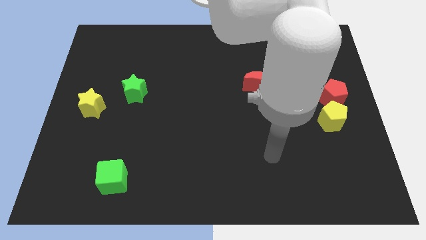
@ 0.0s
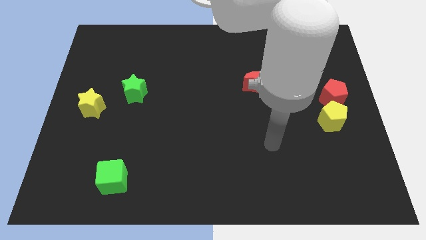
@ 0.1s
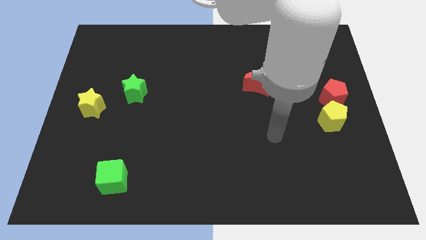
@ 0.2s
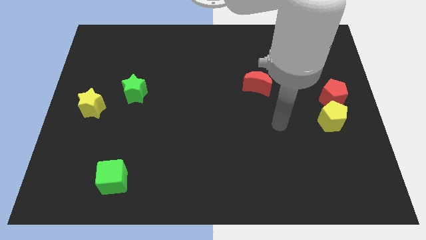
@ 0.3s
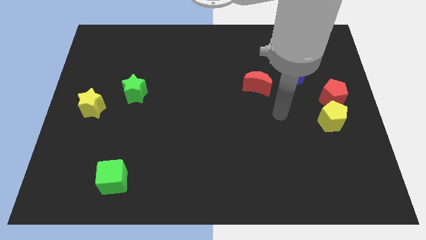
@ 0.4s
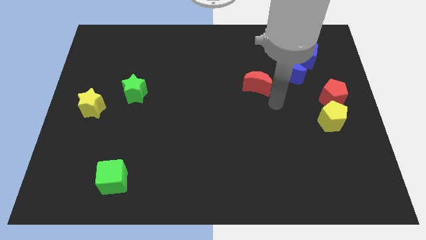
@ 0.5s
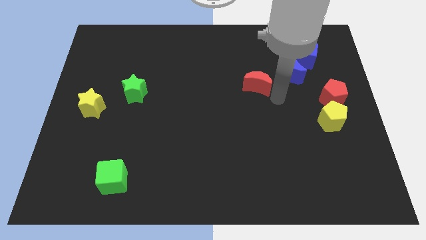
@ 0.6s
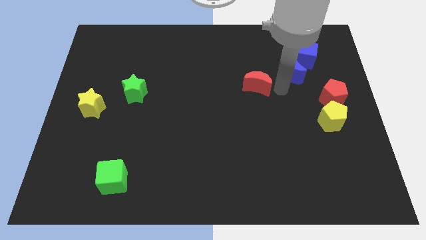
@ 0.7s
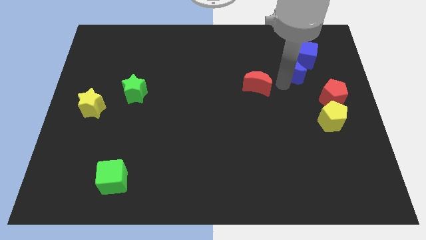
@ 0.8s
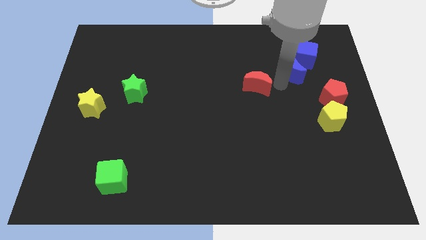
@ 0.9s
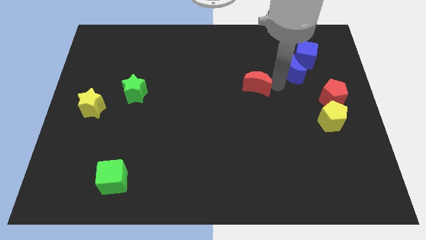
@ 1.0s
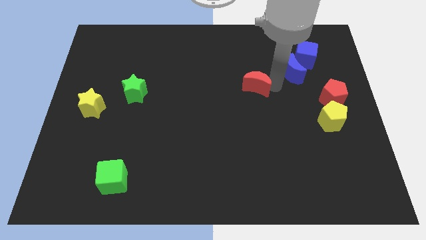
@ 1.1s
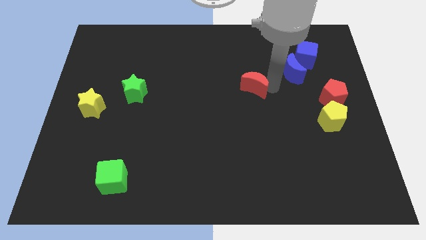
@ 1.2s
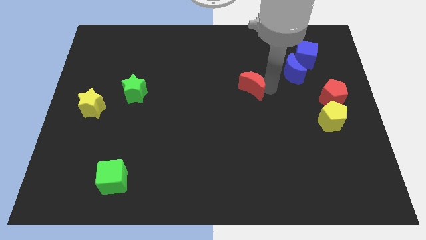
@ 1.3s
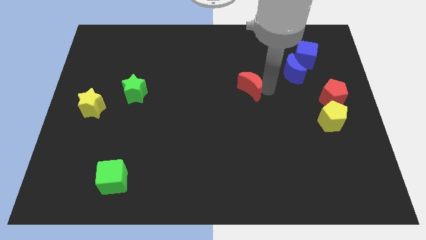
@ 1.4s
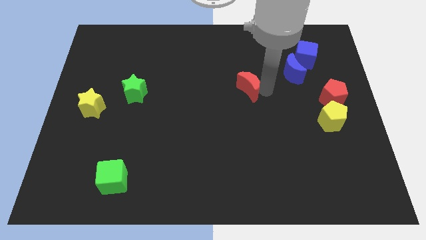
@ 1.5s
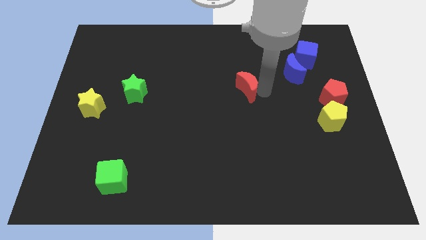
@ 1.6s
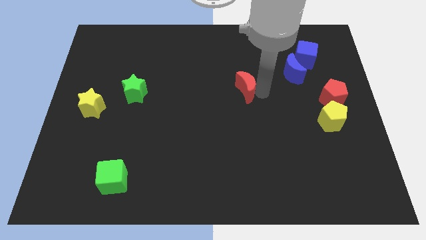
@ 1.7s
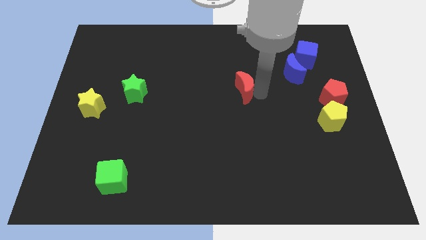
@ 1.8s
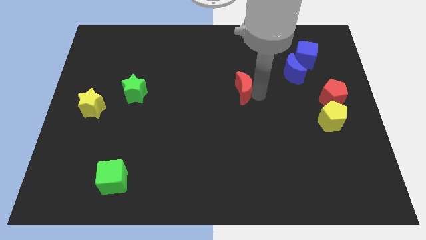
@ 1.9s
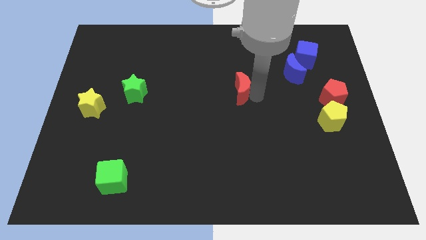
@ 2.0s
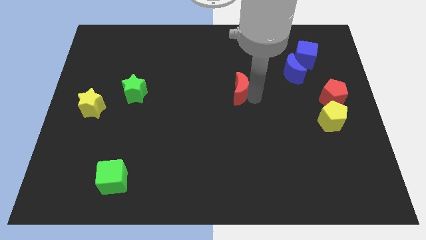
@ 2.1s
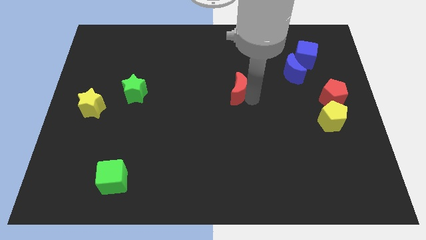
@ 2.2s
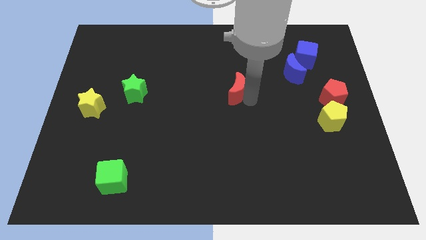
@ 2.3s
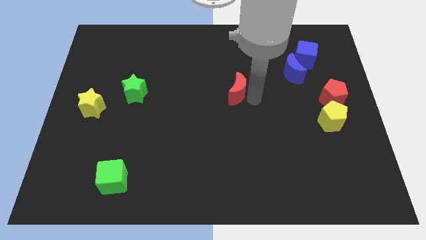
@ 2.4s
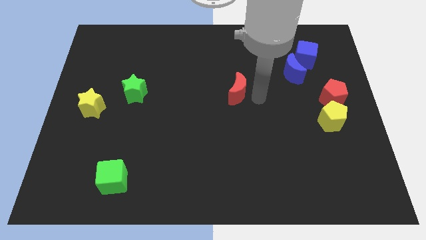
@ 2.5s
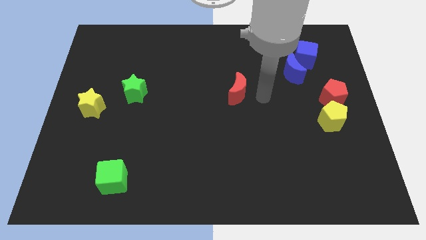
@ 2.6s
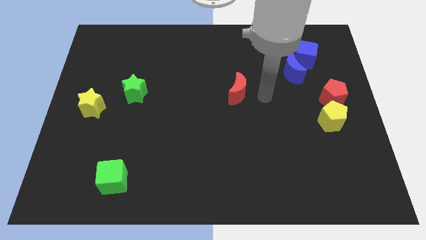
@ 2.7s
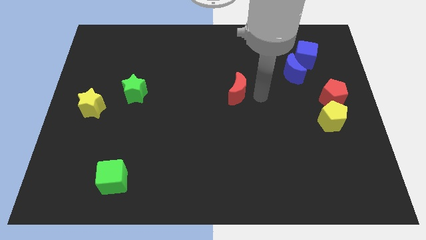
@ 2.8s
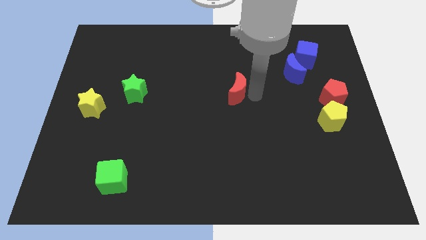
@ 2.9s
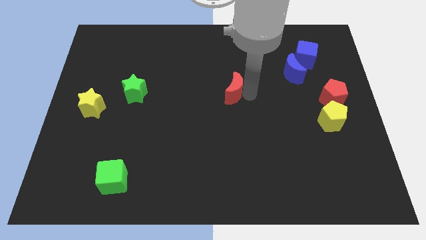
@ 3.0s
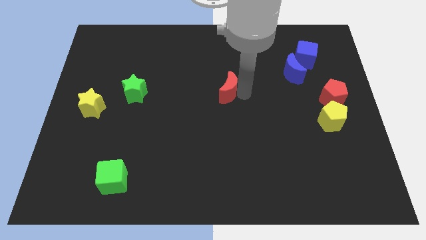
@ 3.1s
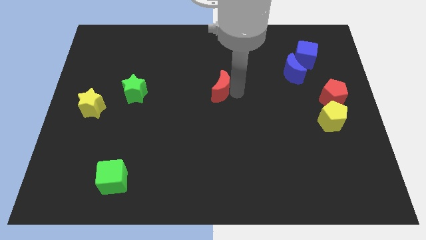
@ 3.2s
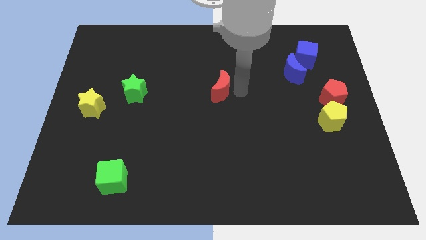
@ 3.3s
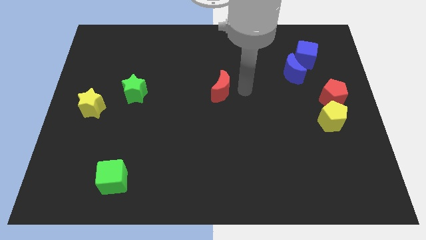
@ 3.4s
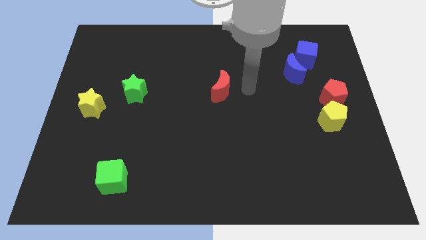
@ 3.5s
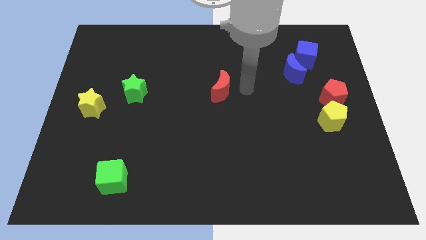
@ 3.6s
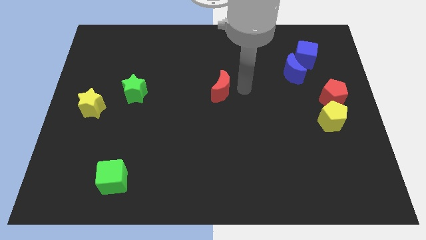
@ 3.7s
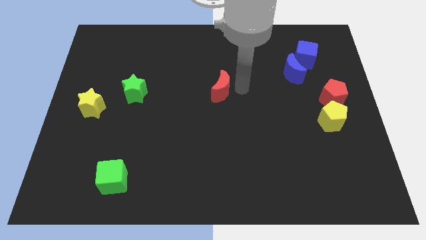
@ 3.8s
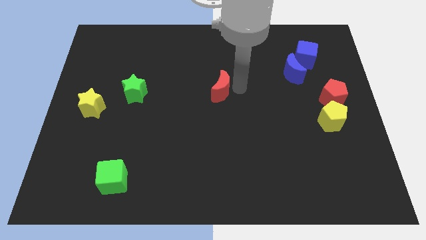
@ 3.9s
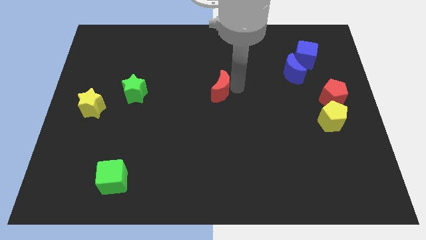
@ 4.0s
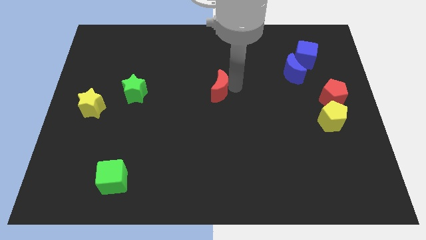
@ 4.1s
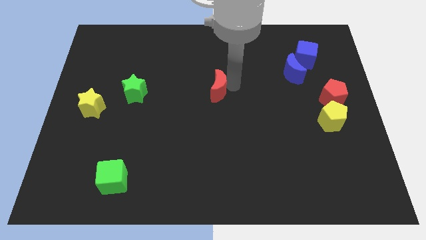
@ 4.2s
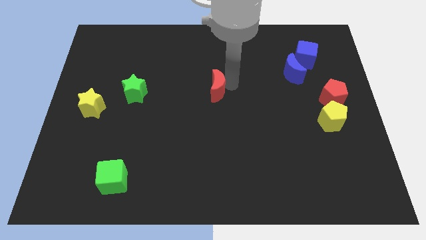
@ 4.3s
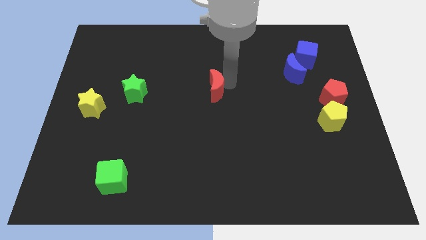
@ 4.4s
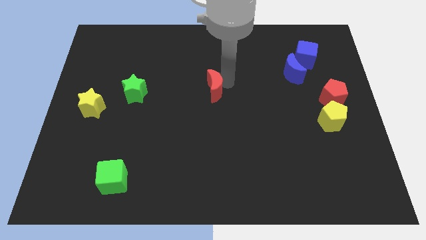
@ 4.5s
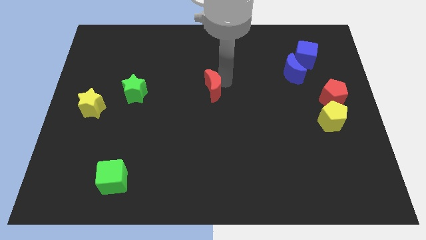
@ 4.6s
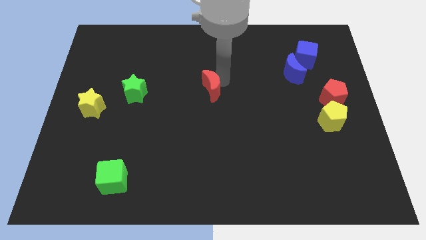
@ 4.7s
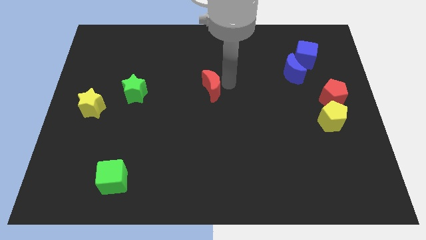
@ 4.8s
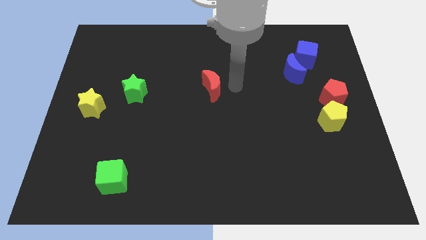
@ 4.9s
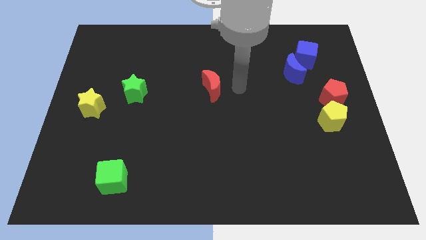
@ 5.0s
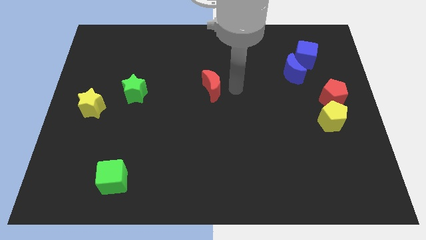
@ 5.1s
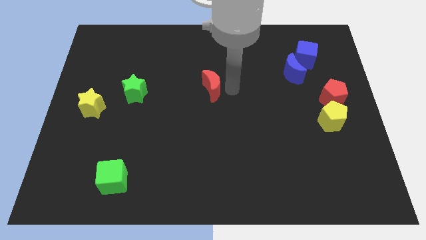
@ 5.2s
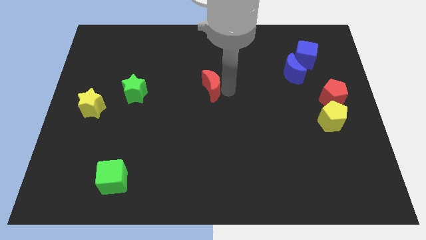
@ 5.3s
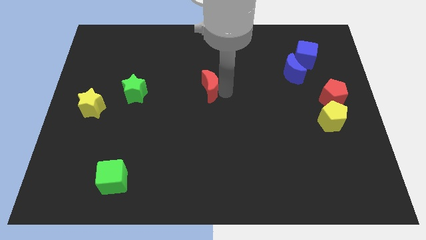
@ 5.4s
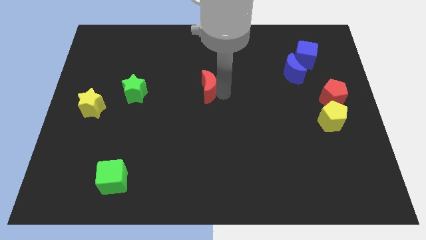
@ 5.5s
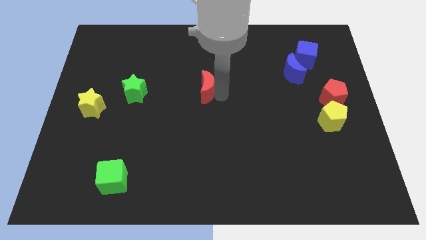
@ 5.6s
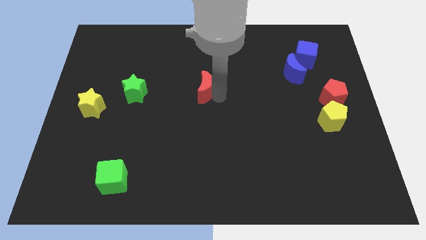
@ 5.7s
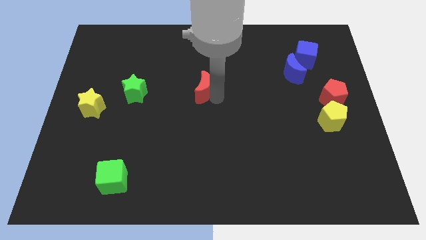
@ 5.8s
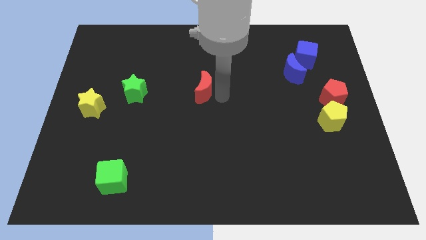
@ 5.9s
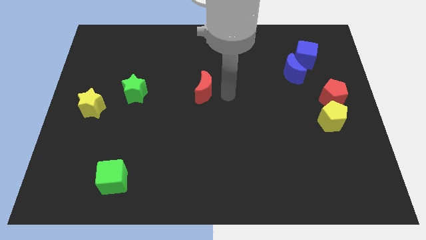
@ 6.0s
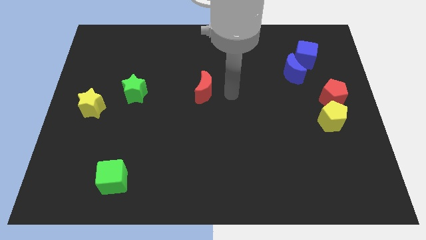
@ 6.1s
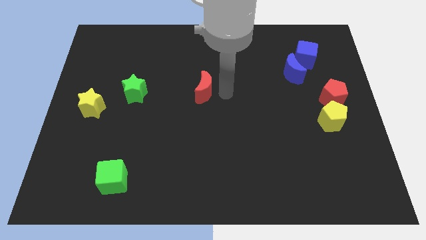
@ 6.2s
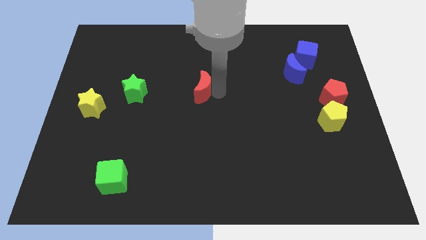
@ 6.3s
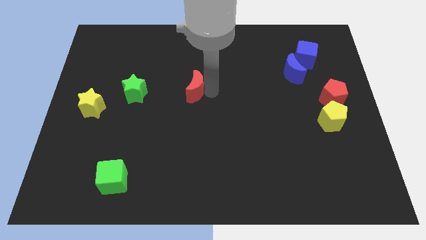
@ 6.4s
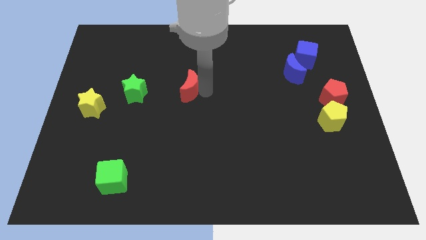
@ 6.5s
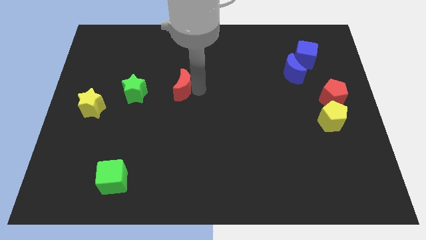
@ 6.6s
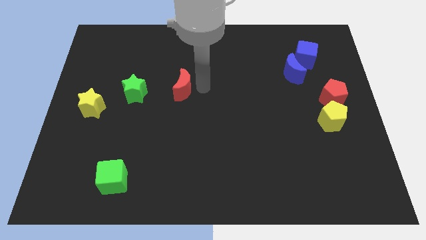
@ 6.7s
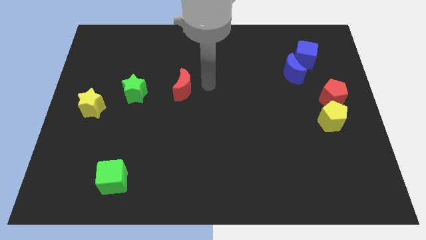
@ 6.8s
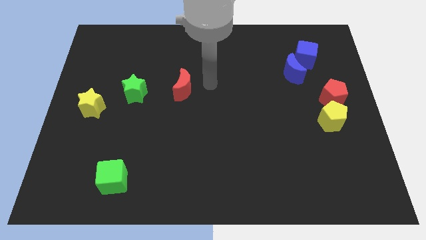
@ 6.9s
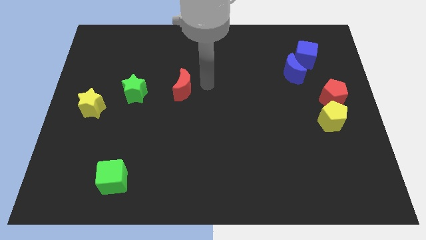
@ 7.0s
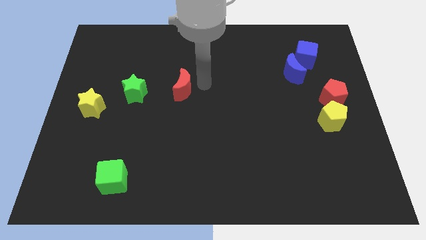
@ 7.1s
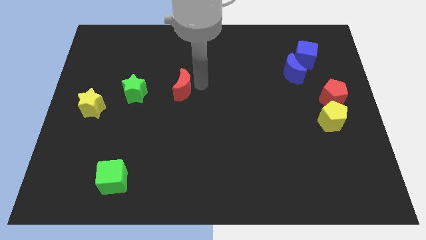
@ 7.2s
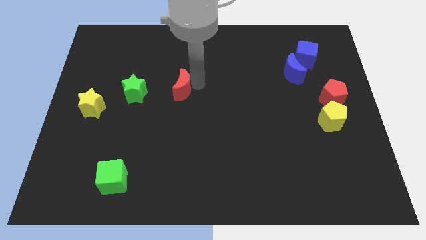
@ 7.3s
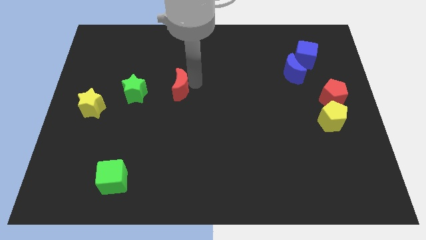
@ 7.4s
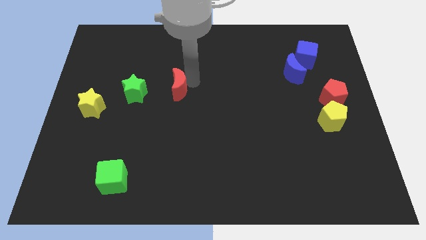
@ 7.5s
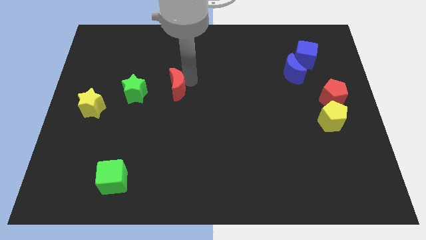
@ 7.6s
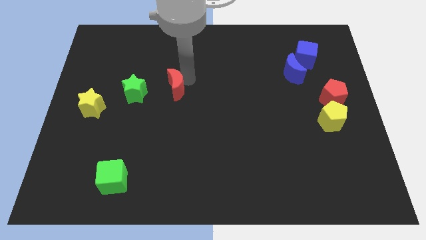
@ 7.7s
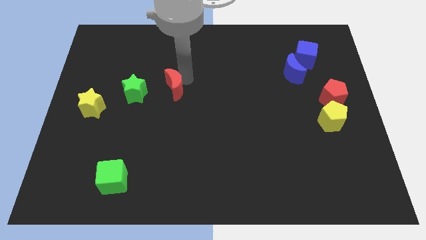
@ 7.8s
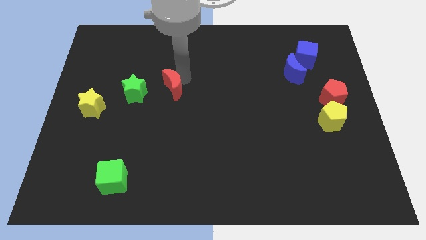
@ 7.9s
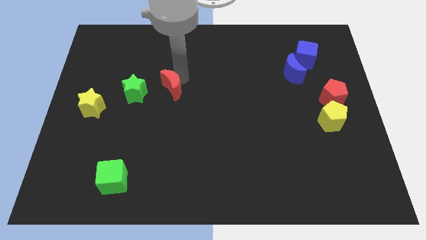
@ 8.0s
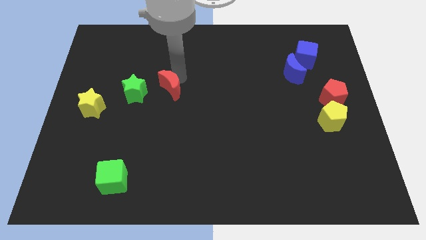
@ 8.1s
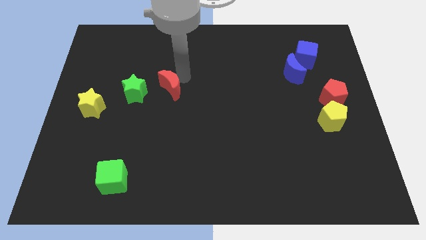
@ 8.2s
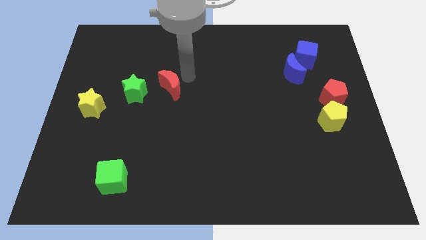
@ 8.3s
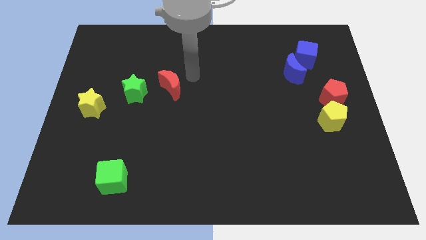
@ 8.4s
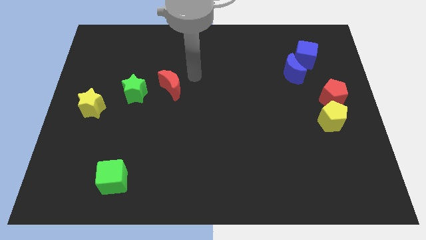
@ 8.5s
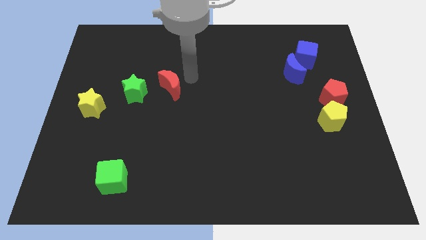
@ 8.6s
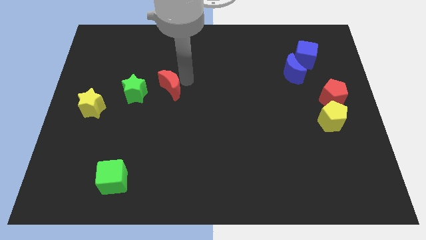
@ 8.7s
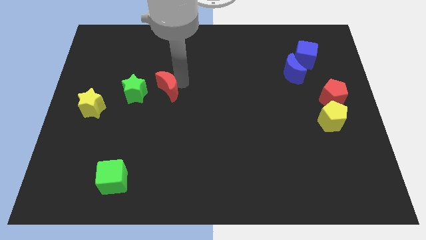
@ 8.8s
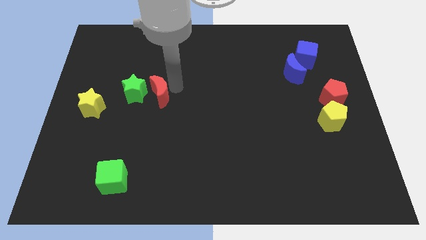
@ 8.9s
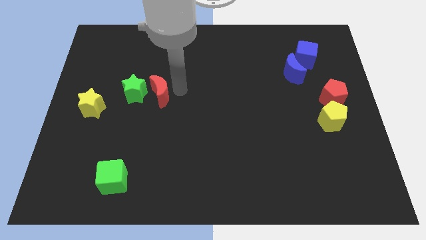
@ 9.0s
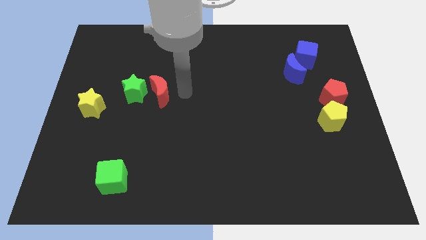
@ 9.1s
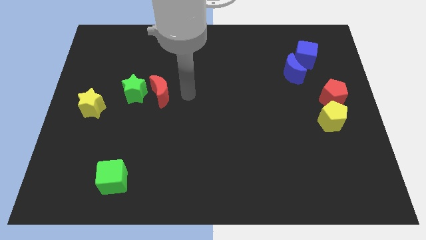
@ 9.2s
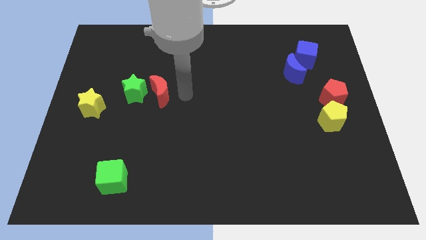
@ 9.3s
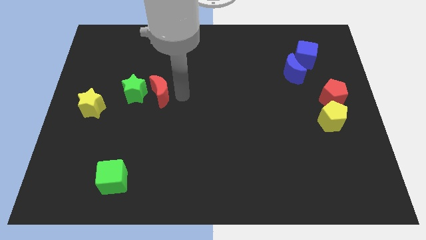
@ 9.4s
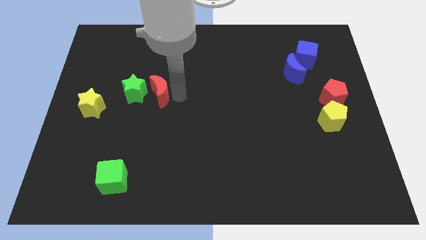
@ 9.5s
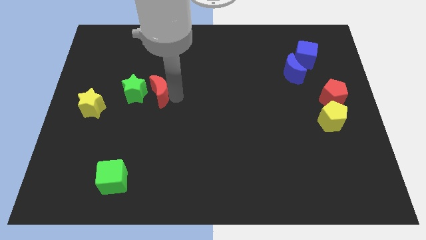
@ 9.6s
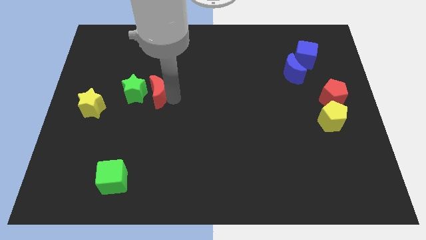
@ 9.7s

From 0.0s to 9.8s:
push the red moon close to the green star
